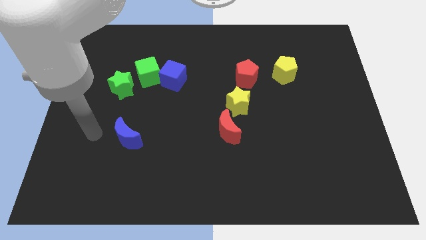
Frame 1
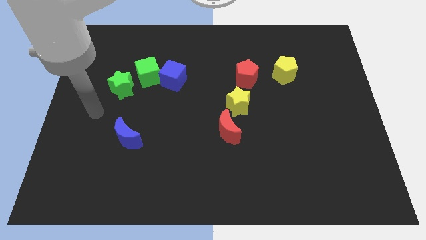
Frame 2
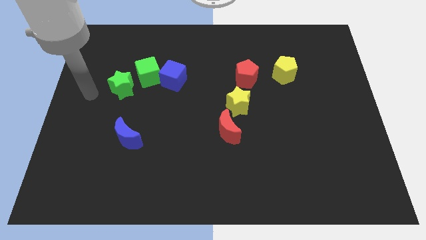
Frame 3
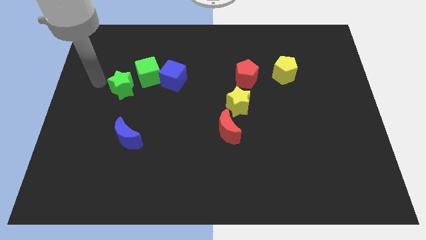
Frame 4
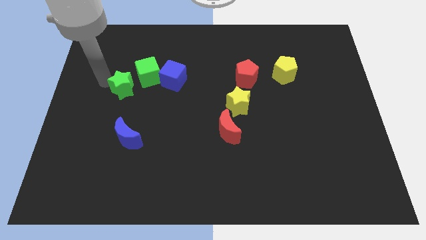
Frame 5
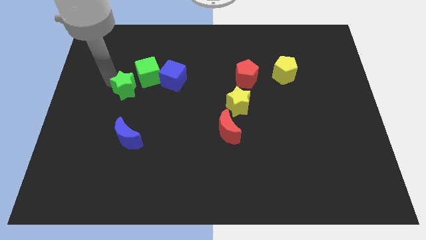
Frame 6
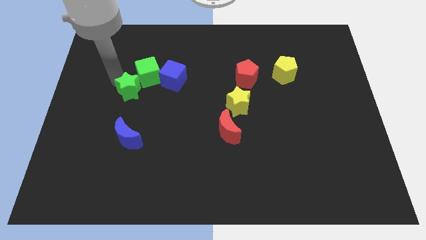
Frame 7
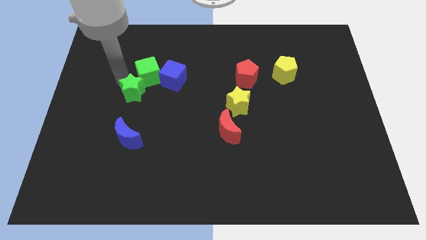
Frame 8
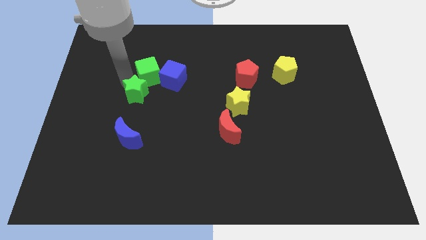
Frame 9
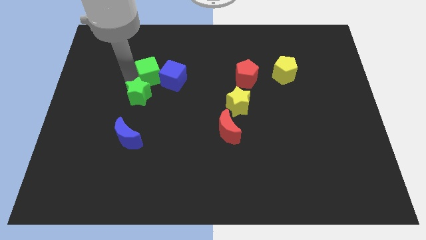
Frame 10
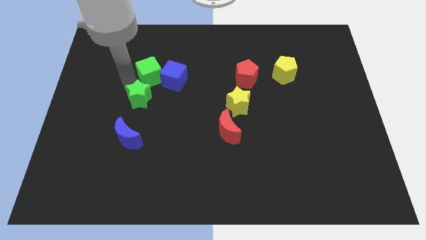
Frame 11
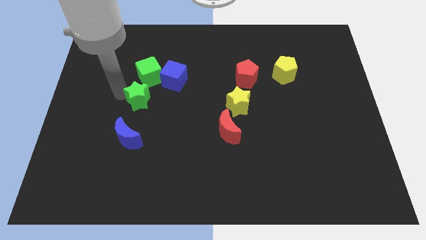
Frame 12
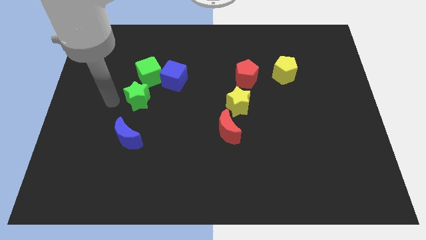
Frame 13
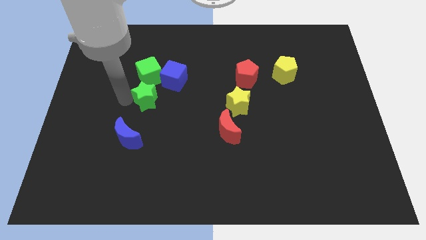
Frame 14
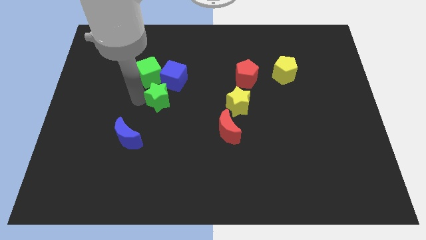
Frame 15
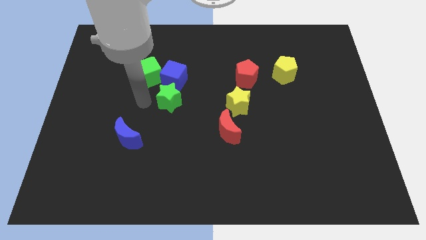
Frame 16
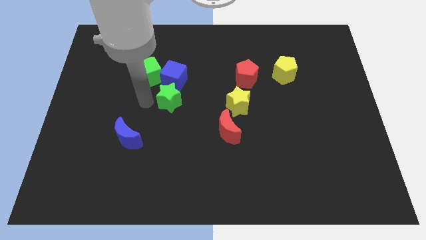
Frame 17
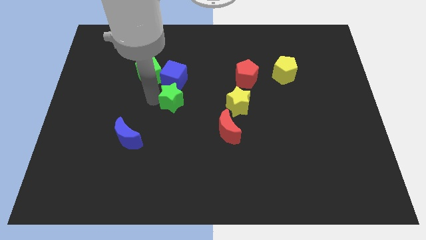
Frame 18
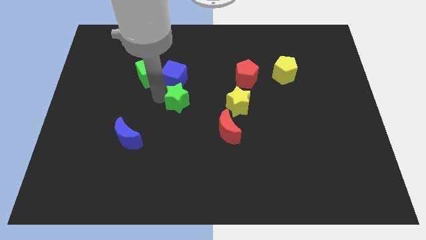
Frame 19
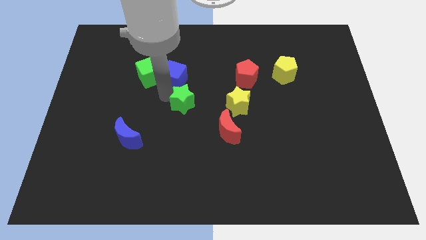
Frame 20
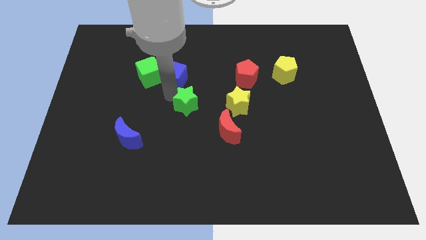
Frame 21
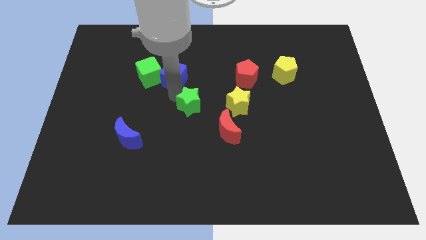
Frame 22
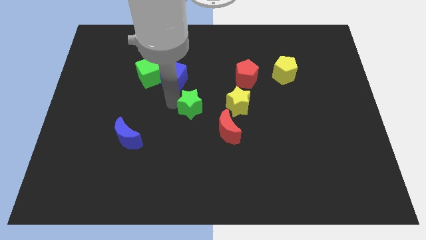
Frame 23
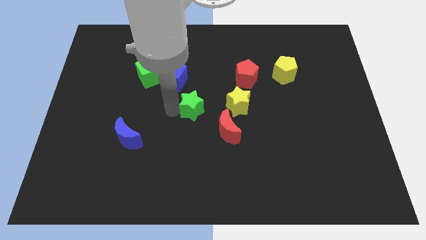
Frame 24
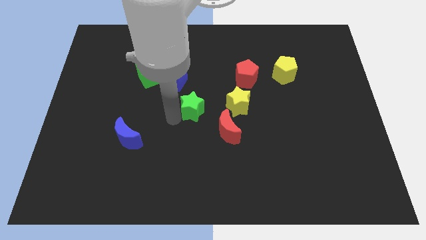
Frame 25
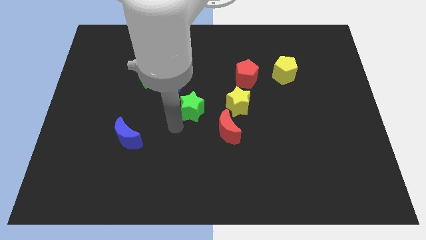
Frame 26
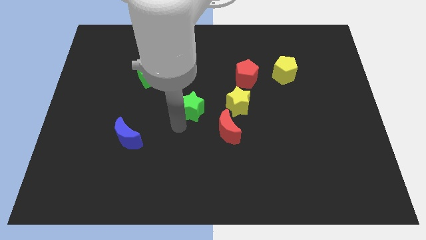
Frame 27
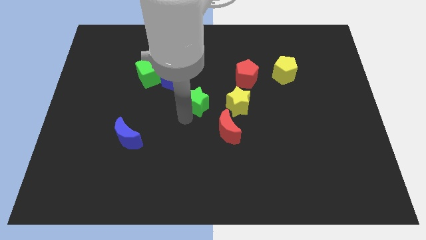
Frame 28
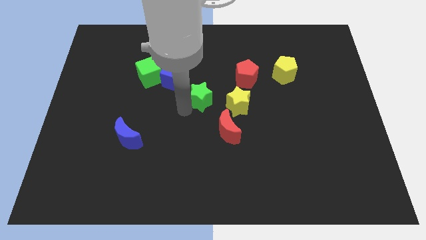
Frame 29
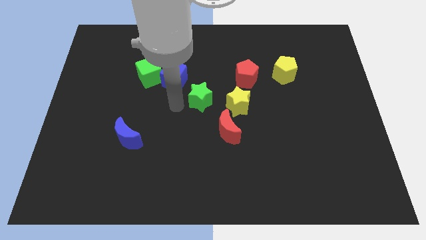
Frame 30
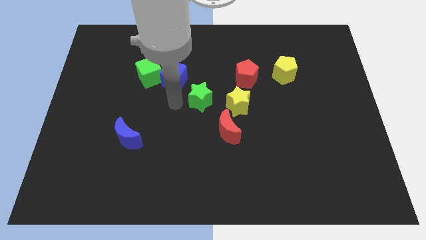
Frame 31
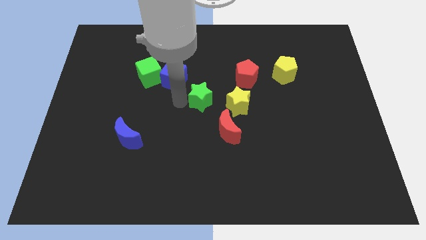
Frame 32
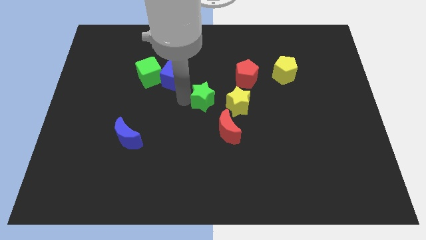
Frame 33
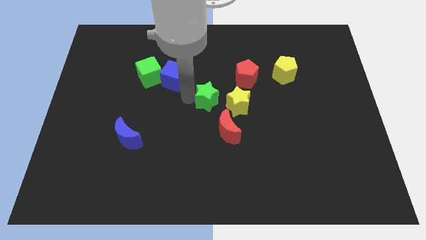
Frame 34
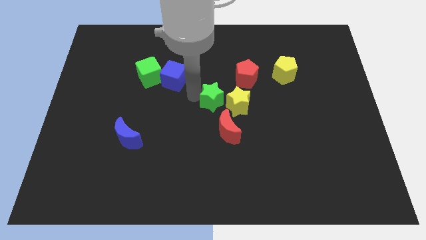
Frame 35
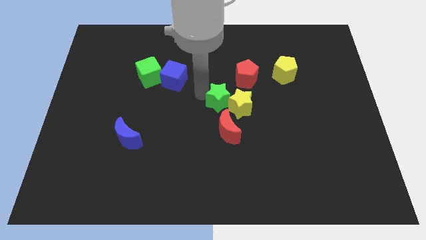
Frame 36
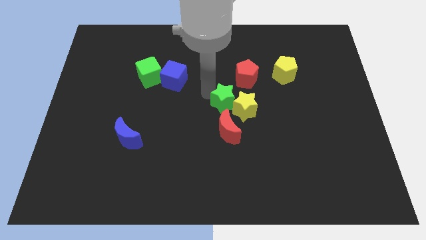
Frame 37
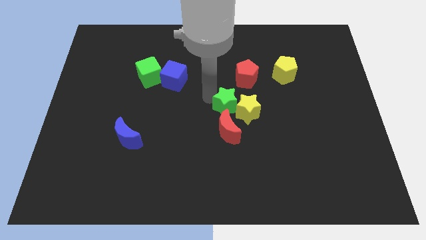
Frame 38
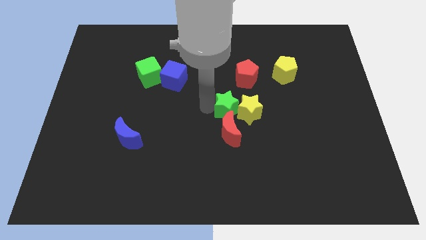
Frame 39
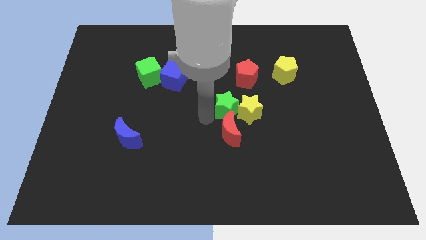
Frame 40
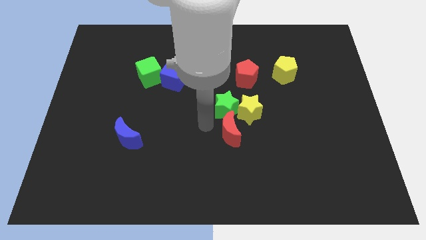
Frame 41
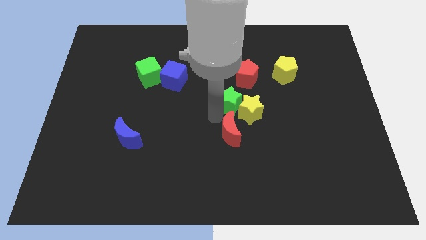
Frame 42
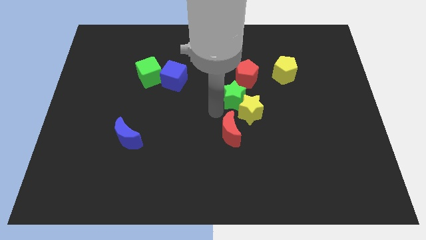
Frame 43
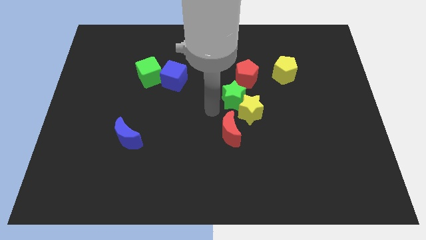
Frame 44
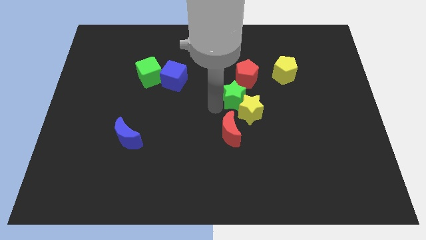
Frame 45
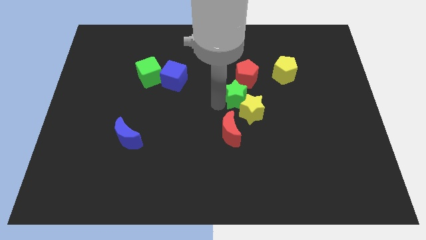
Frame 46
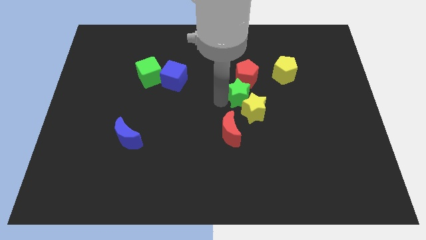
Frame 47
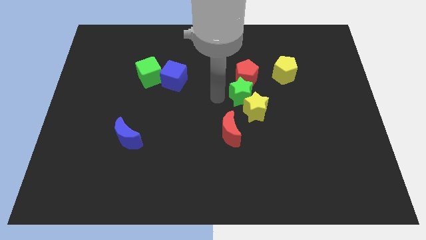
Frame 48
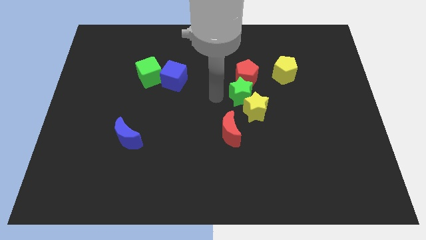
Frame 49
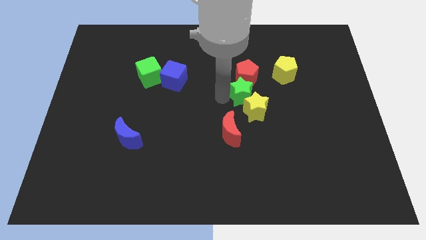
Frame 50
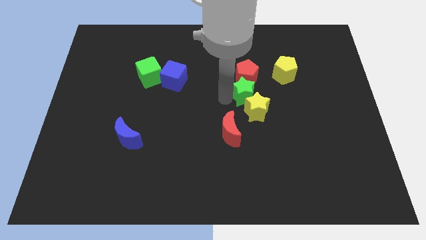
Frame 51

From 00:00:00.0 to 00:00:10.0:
slide the green star to the bottom right of the red pentagon

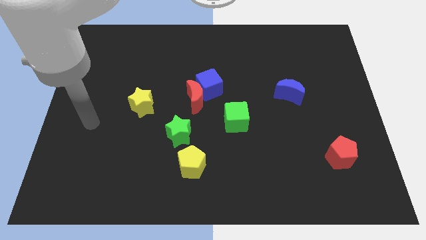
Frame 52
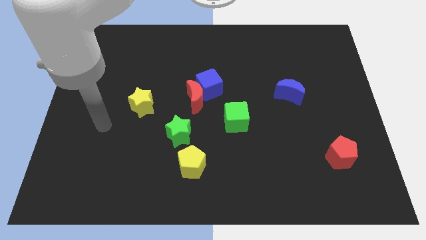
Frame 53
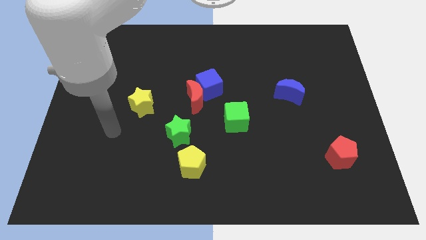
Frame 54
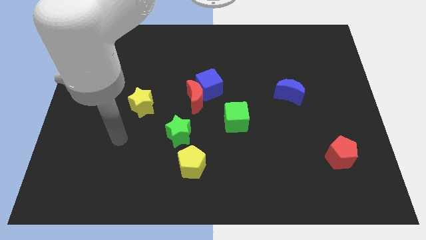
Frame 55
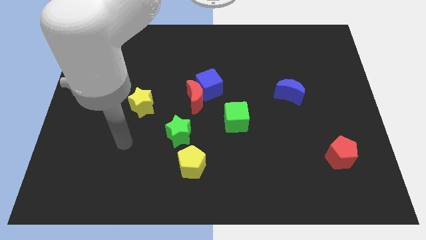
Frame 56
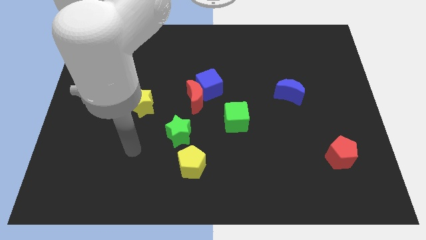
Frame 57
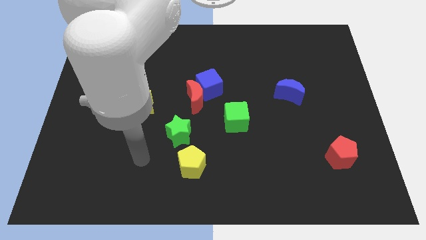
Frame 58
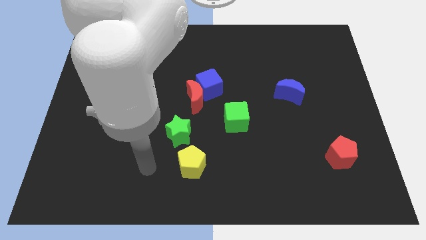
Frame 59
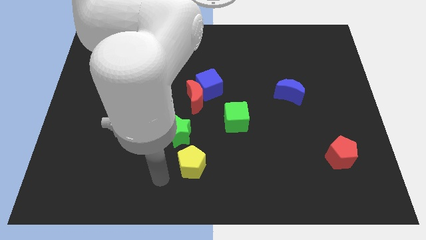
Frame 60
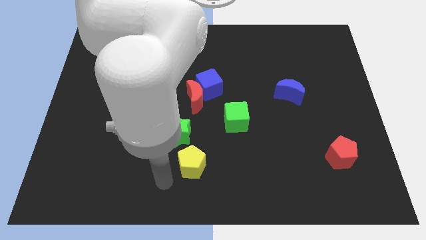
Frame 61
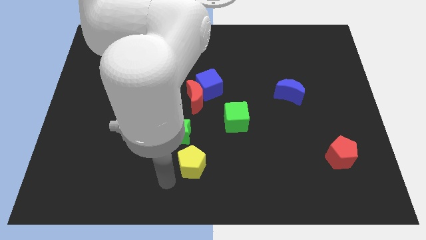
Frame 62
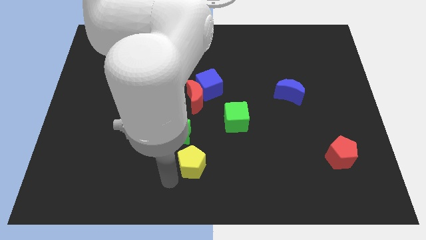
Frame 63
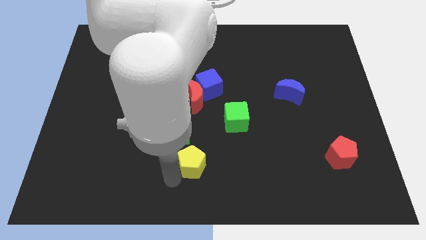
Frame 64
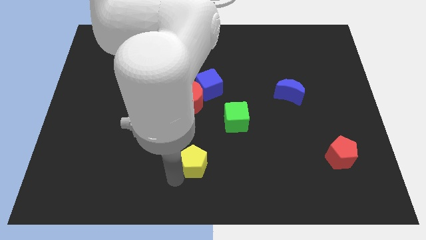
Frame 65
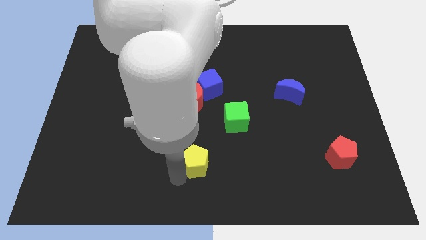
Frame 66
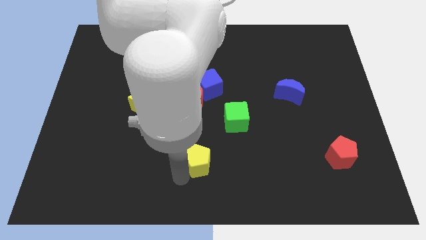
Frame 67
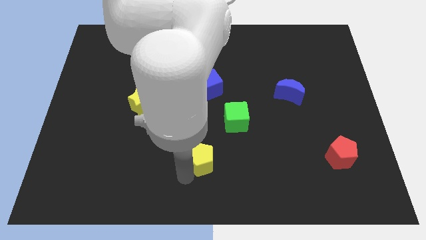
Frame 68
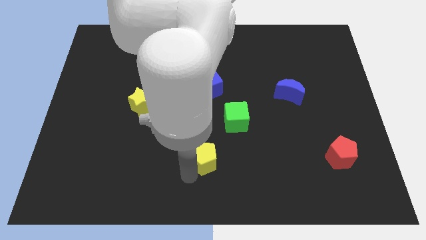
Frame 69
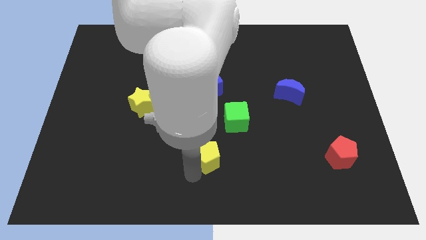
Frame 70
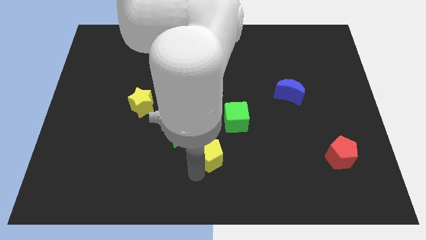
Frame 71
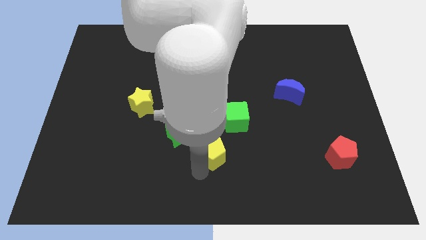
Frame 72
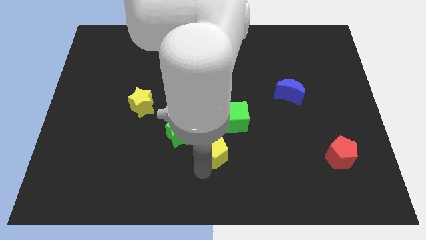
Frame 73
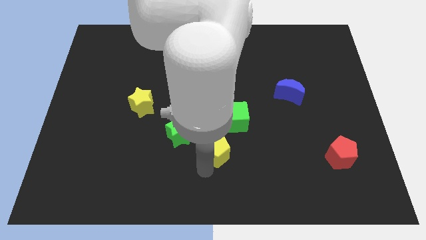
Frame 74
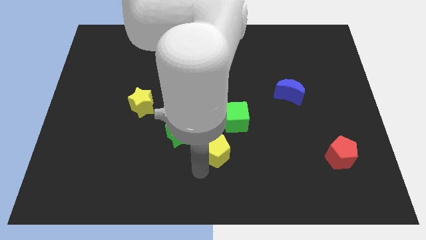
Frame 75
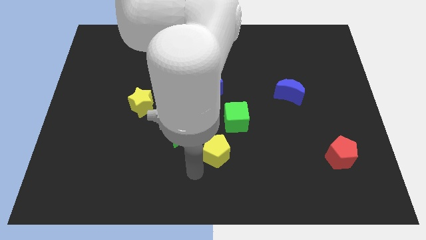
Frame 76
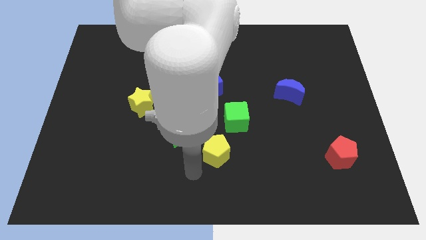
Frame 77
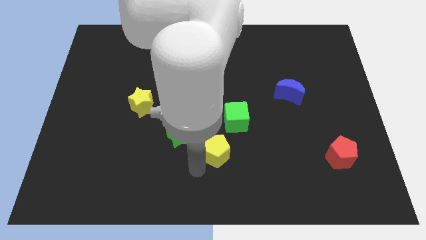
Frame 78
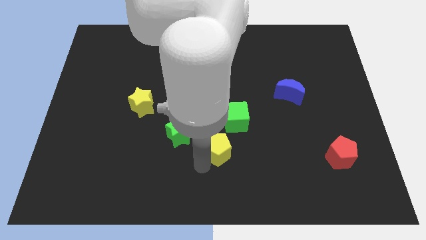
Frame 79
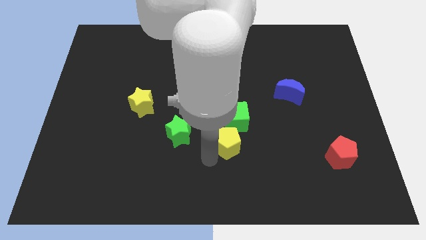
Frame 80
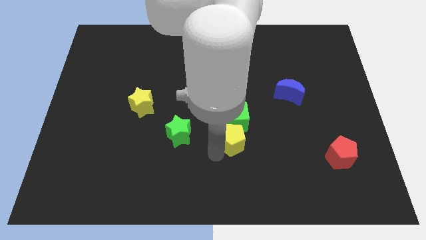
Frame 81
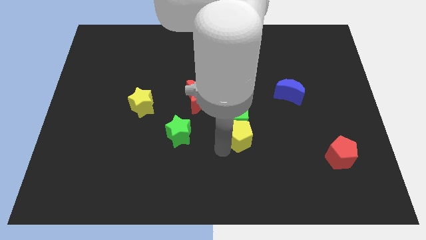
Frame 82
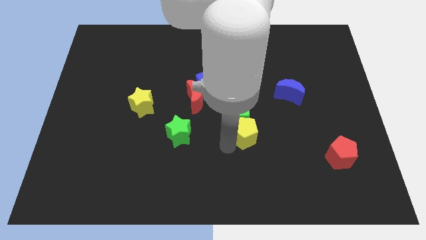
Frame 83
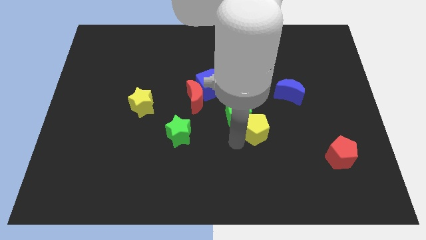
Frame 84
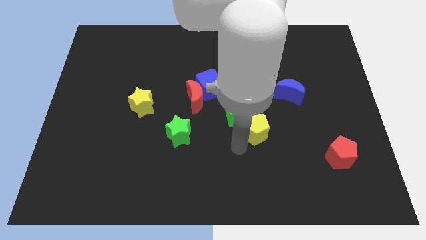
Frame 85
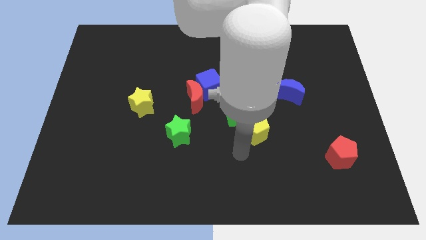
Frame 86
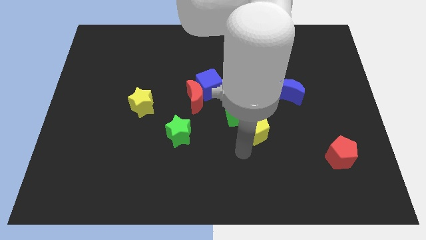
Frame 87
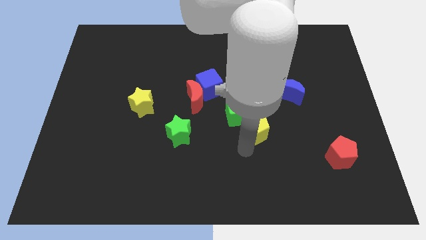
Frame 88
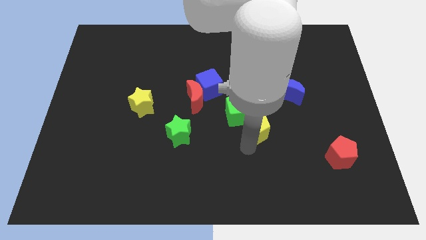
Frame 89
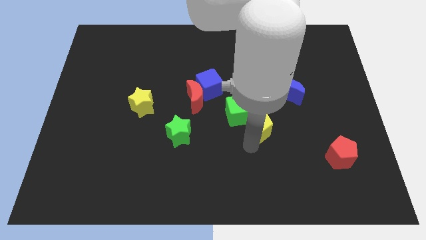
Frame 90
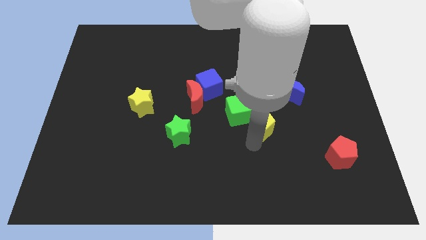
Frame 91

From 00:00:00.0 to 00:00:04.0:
put the yellow pentagon to the bottom left of the blue moon
